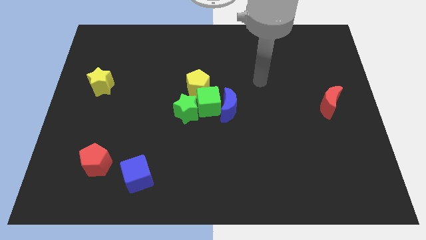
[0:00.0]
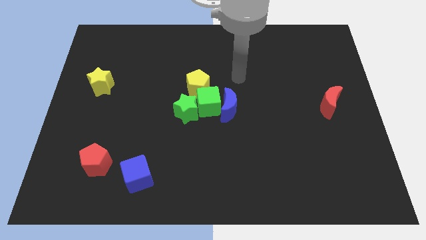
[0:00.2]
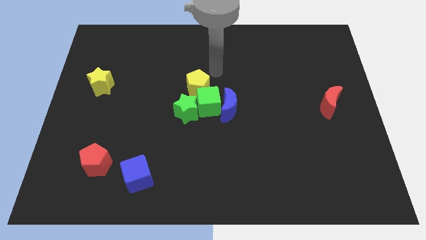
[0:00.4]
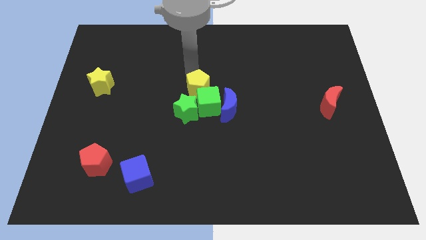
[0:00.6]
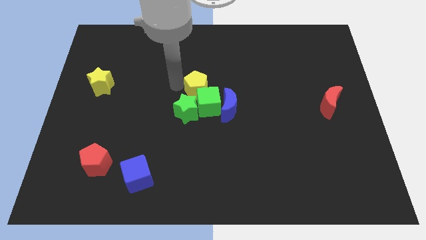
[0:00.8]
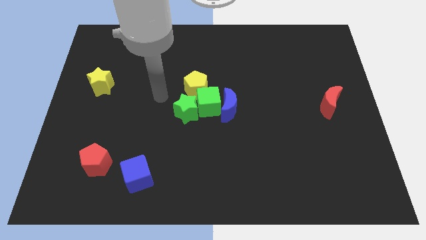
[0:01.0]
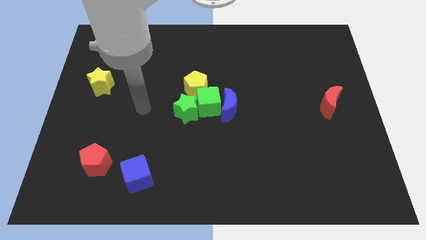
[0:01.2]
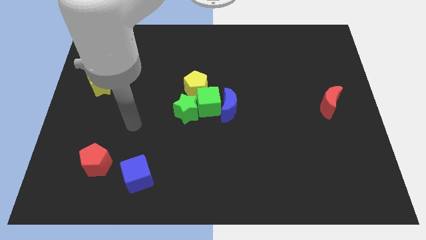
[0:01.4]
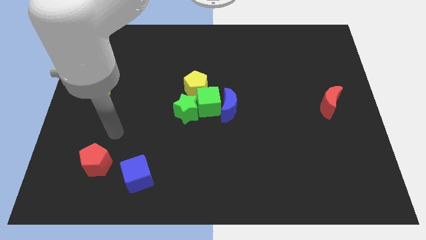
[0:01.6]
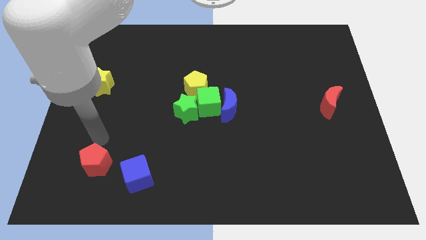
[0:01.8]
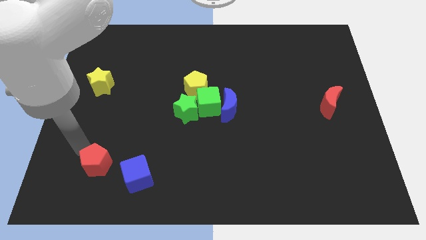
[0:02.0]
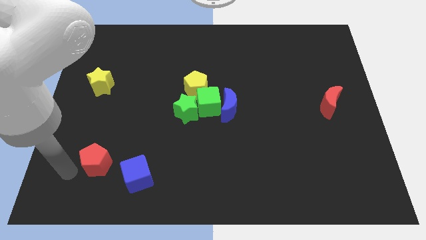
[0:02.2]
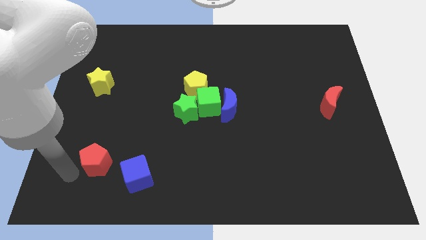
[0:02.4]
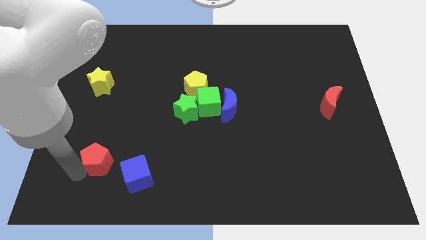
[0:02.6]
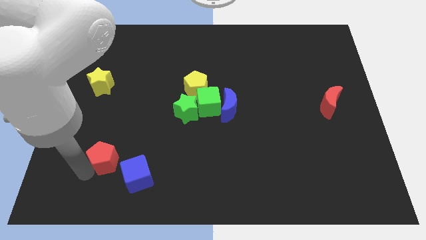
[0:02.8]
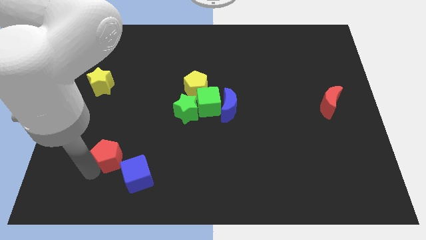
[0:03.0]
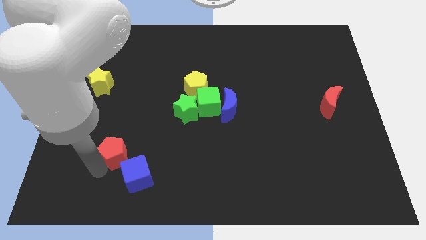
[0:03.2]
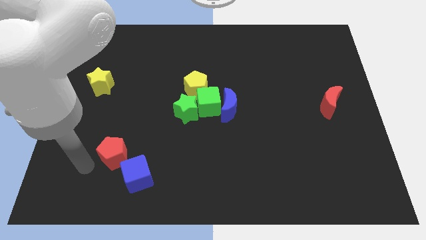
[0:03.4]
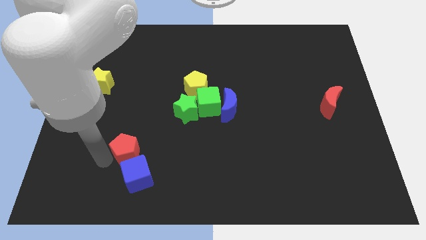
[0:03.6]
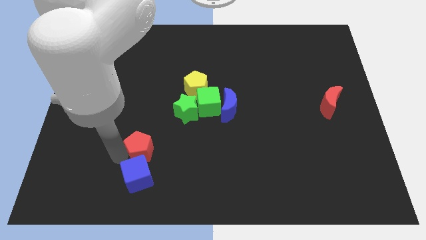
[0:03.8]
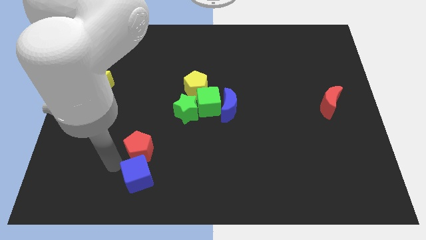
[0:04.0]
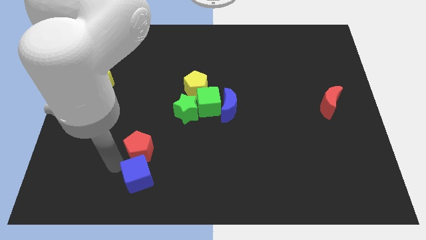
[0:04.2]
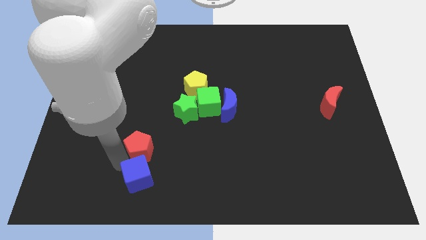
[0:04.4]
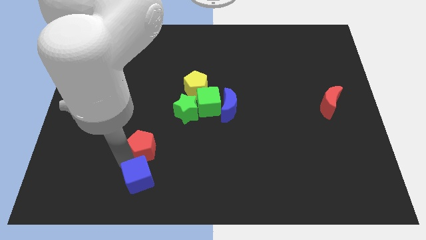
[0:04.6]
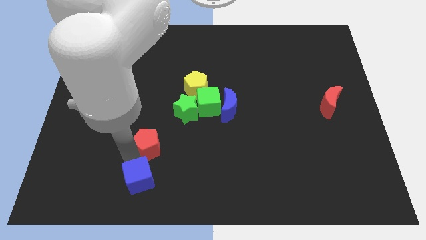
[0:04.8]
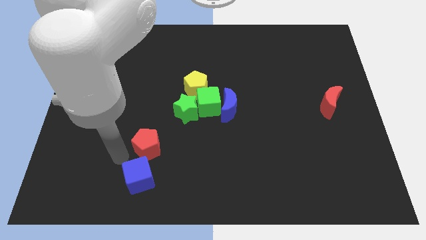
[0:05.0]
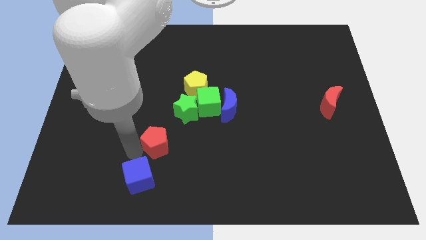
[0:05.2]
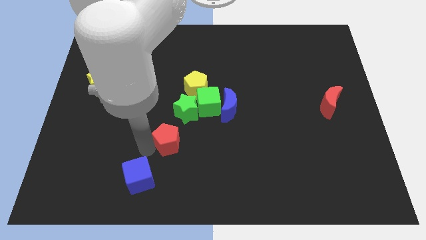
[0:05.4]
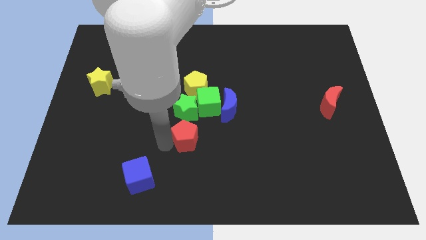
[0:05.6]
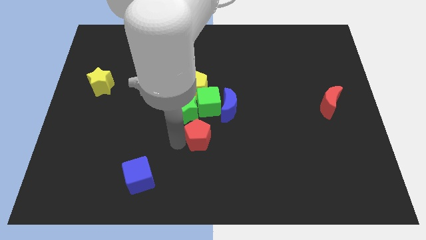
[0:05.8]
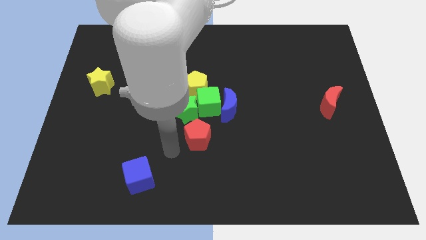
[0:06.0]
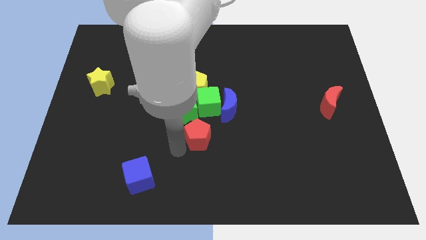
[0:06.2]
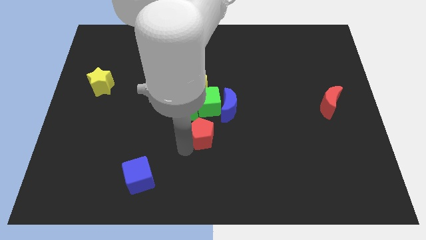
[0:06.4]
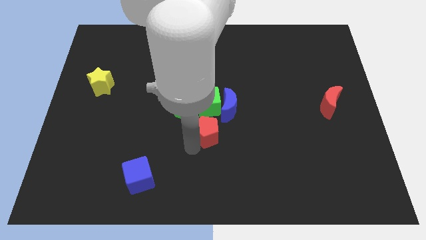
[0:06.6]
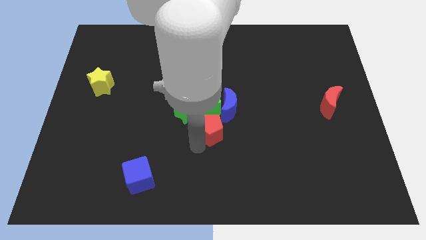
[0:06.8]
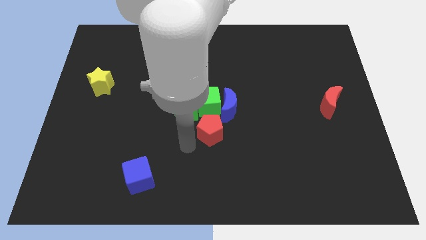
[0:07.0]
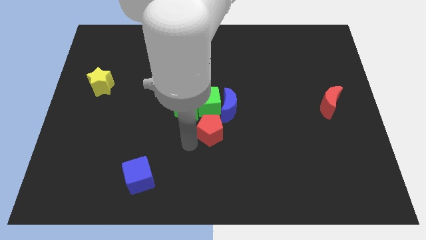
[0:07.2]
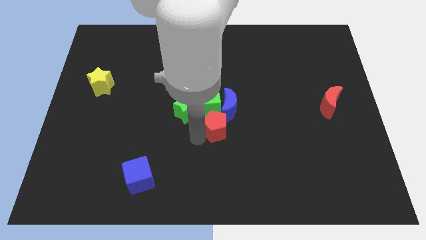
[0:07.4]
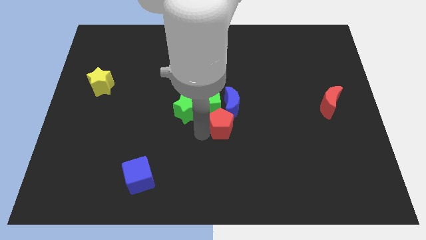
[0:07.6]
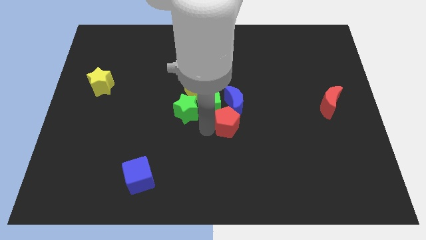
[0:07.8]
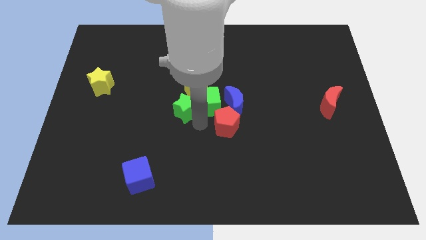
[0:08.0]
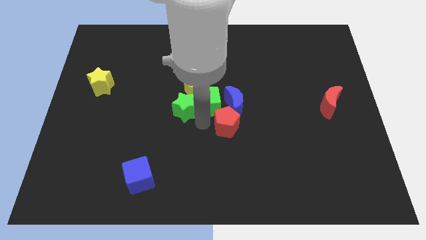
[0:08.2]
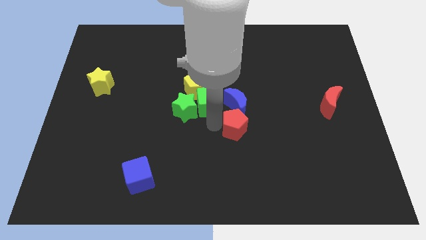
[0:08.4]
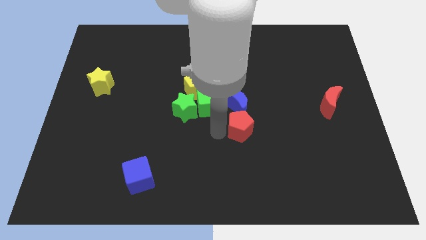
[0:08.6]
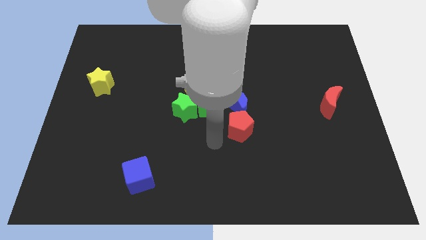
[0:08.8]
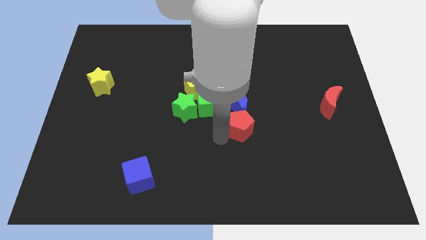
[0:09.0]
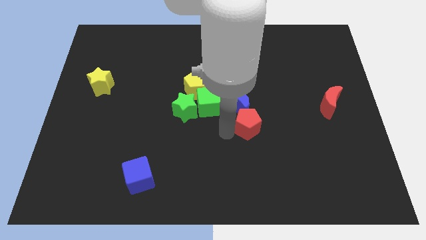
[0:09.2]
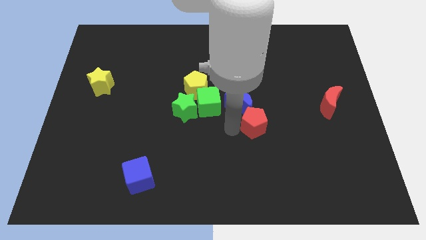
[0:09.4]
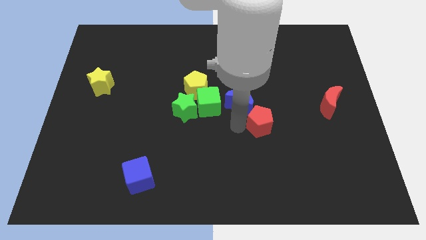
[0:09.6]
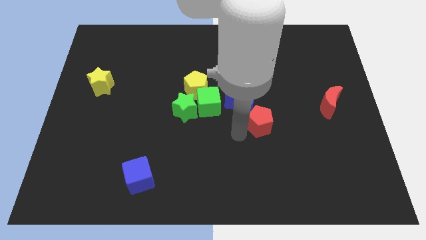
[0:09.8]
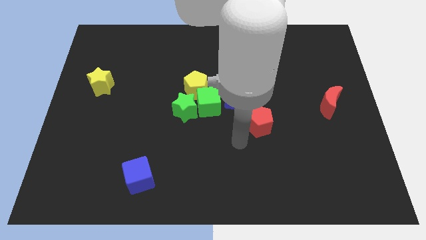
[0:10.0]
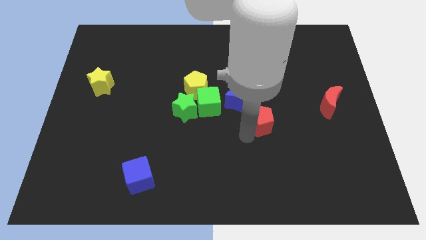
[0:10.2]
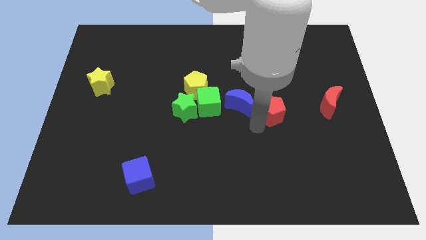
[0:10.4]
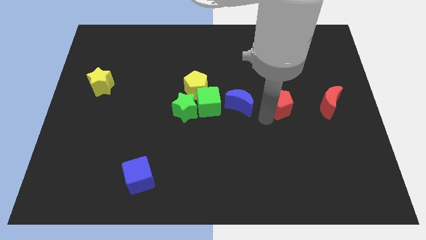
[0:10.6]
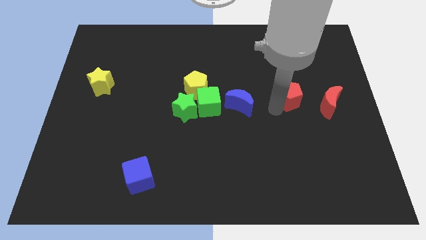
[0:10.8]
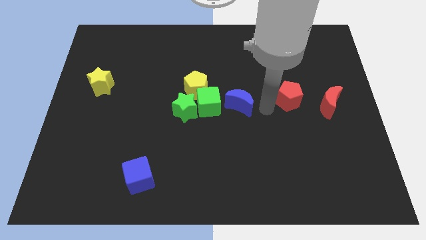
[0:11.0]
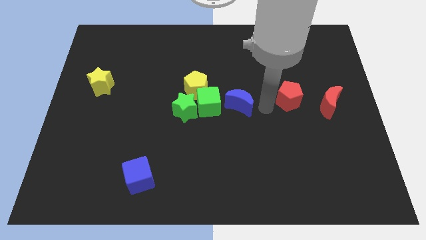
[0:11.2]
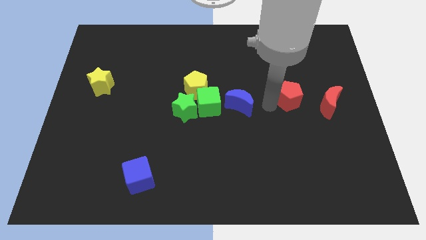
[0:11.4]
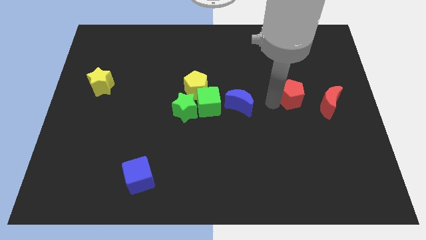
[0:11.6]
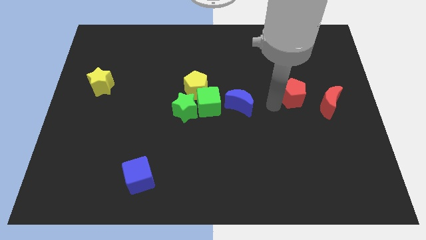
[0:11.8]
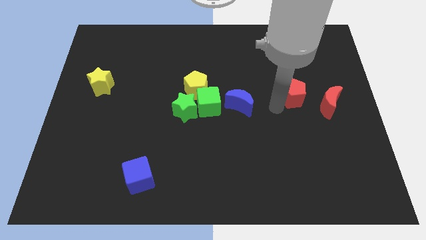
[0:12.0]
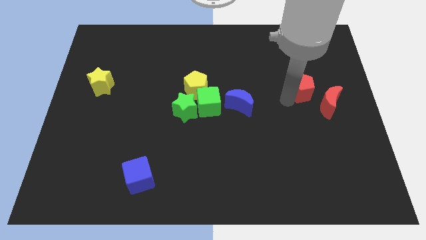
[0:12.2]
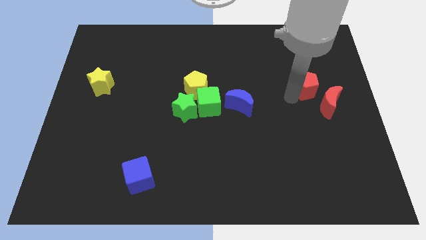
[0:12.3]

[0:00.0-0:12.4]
put the red pentagon above the red moon

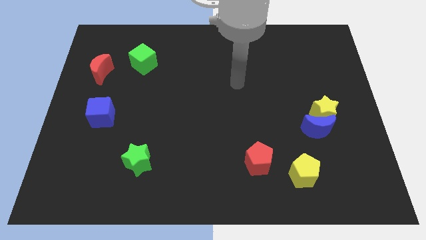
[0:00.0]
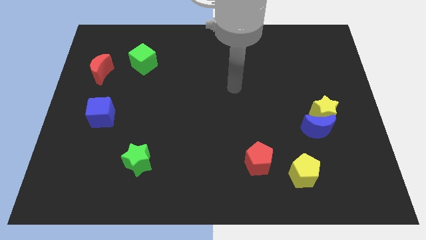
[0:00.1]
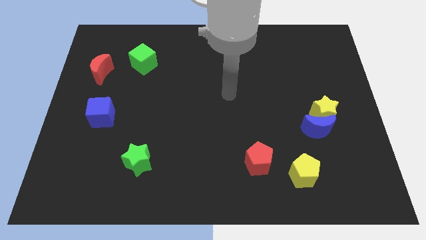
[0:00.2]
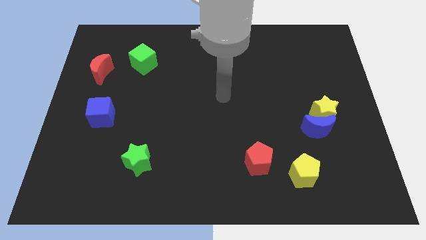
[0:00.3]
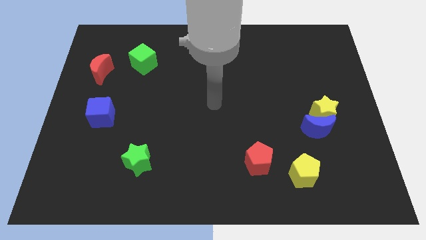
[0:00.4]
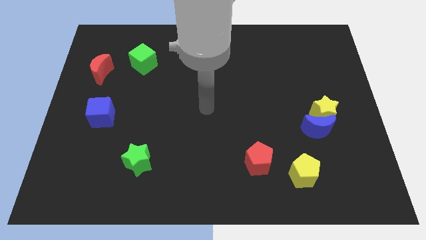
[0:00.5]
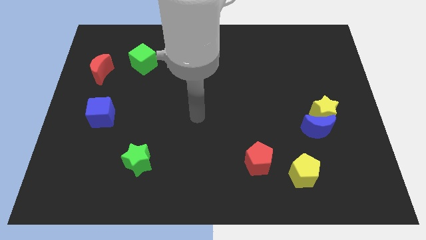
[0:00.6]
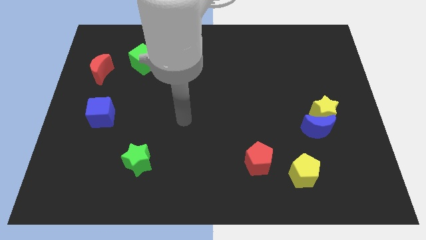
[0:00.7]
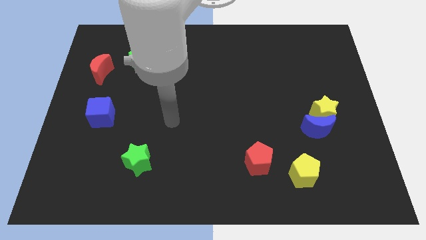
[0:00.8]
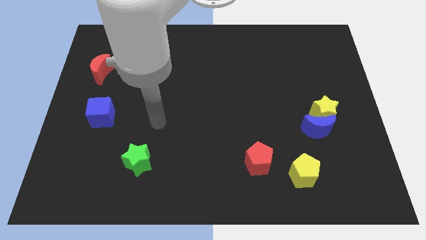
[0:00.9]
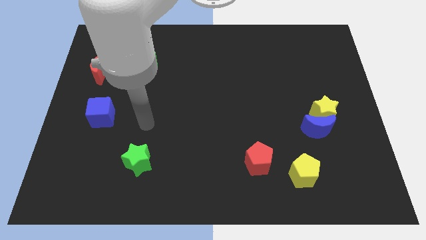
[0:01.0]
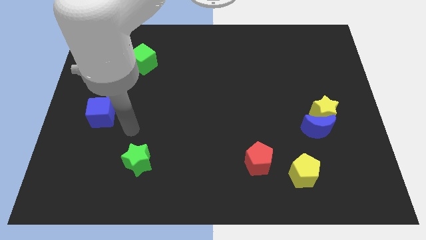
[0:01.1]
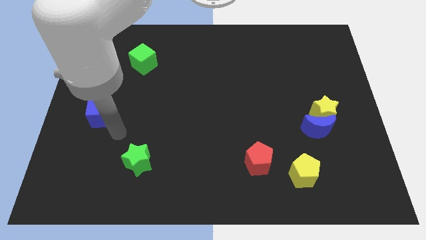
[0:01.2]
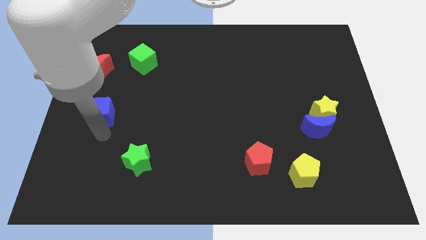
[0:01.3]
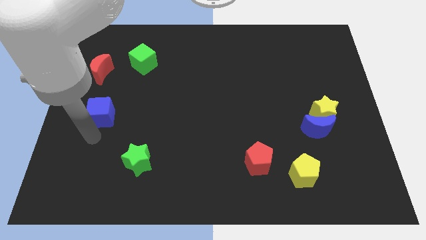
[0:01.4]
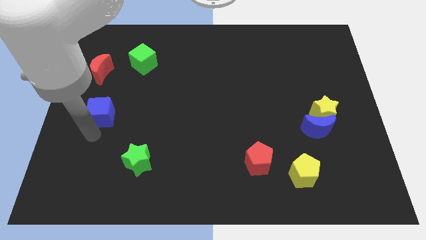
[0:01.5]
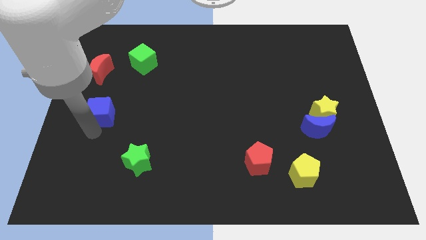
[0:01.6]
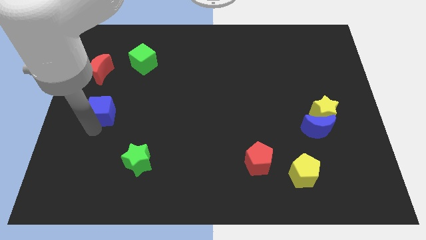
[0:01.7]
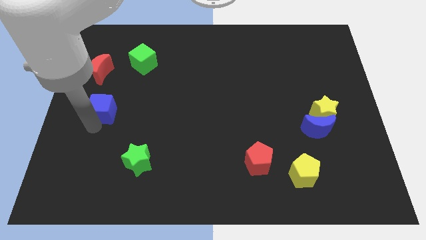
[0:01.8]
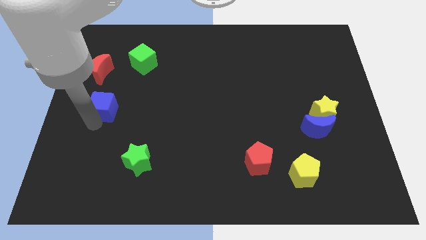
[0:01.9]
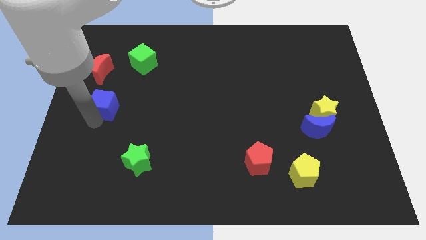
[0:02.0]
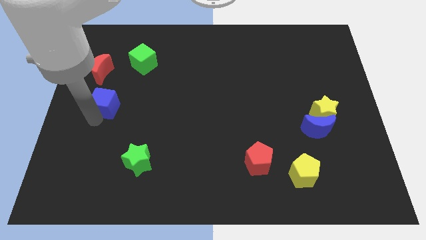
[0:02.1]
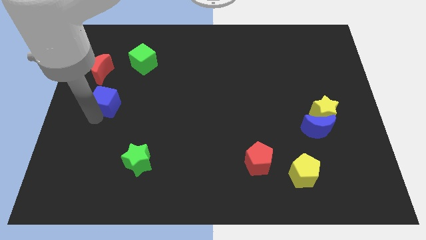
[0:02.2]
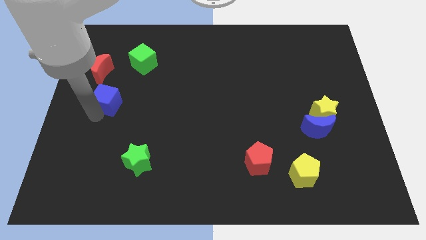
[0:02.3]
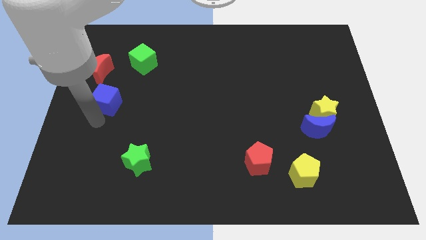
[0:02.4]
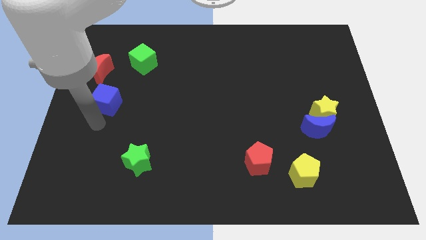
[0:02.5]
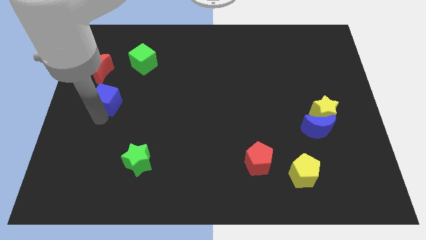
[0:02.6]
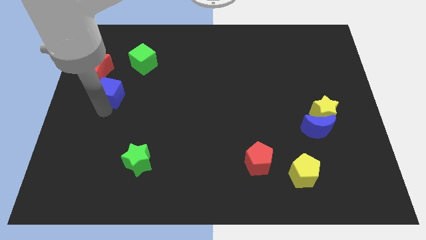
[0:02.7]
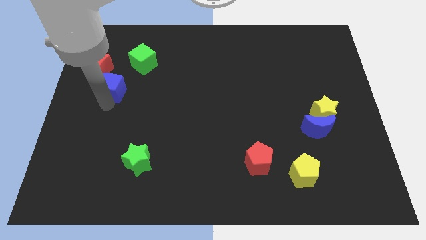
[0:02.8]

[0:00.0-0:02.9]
move the blue cube diagonally down and to the left of the green cube
